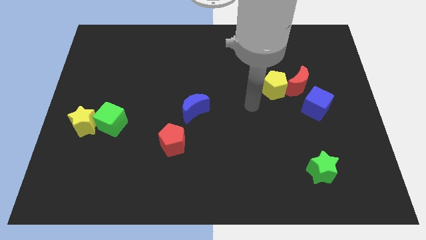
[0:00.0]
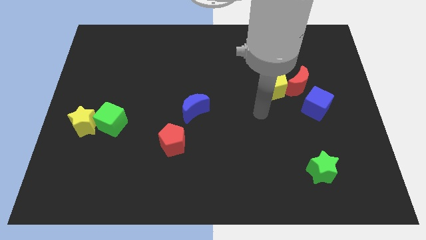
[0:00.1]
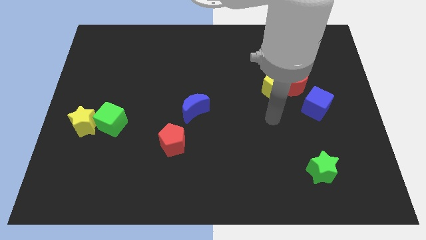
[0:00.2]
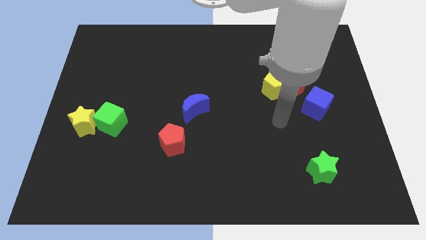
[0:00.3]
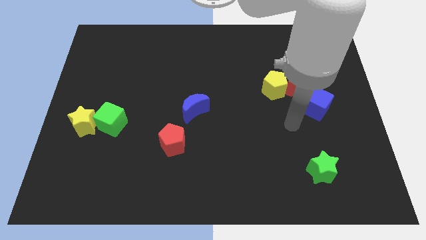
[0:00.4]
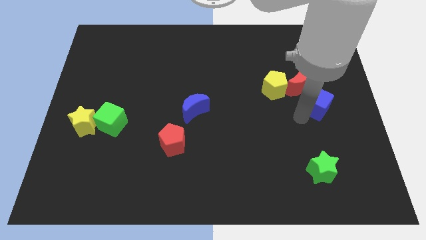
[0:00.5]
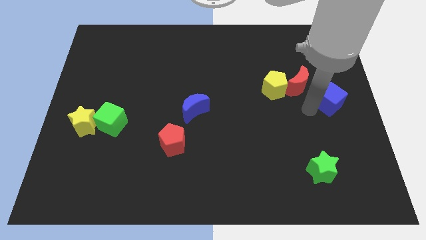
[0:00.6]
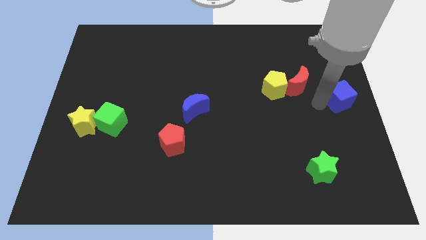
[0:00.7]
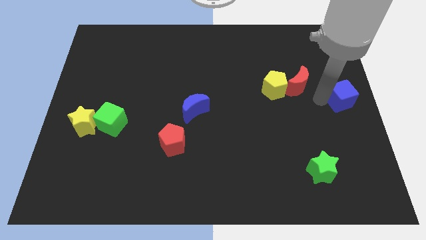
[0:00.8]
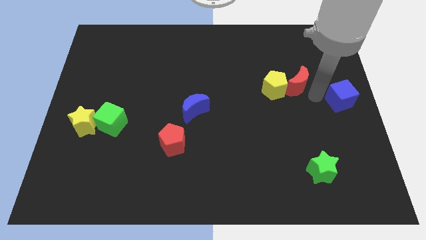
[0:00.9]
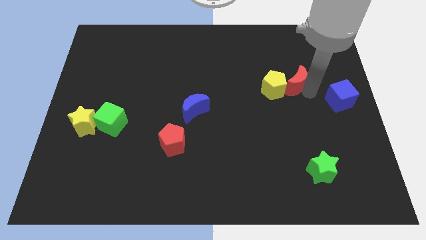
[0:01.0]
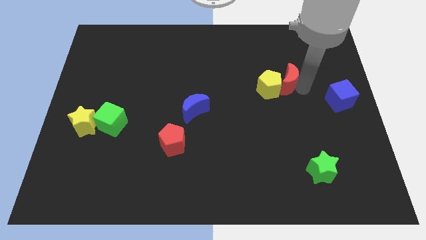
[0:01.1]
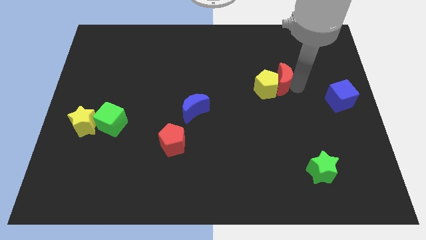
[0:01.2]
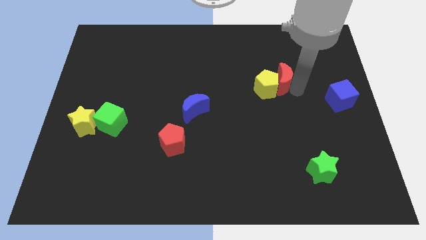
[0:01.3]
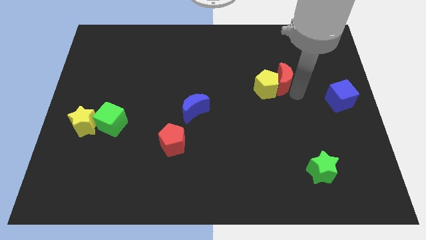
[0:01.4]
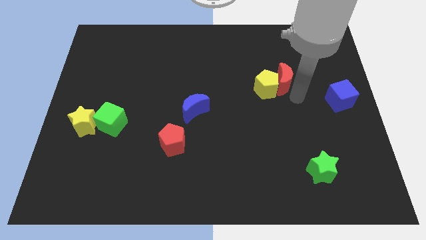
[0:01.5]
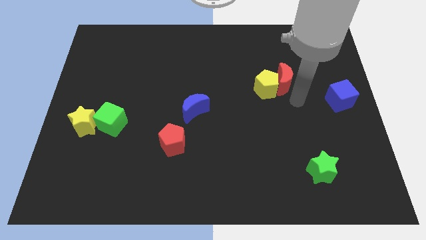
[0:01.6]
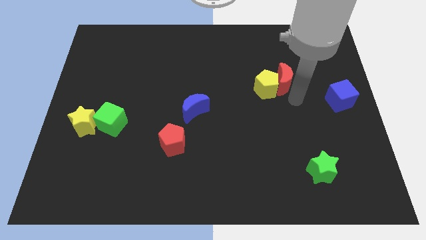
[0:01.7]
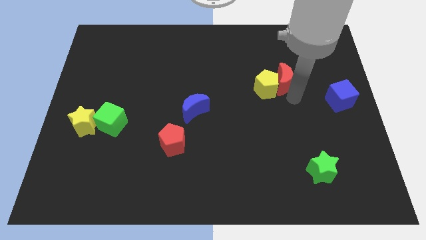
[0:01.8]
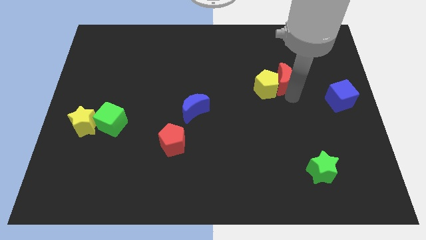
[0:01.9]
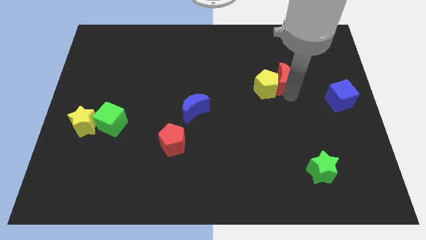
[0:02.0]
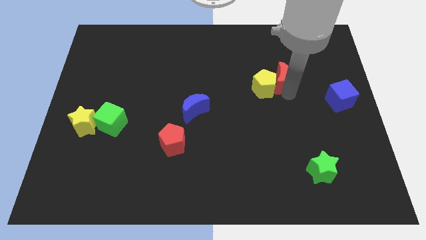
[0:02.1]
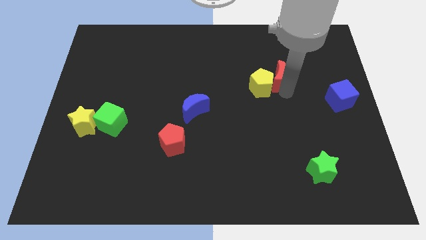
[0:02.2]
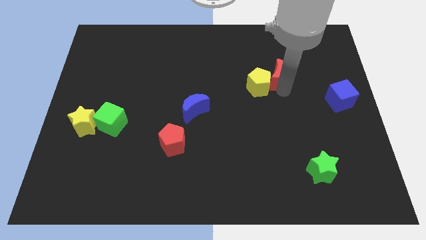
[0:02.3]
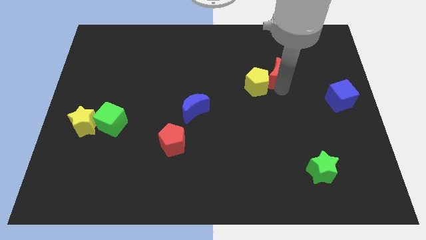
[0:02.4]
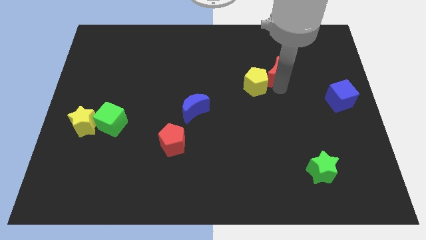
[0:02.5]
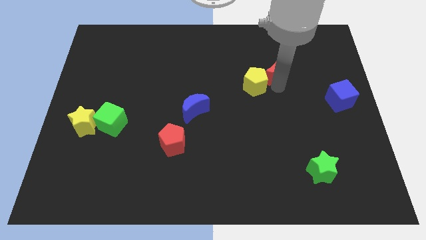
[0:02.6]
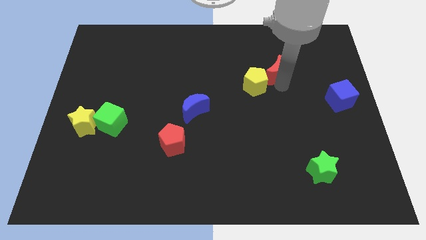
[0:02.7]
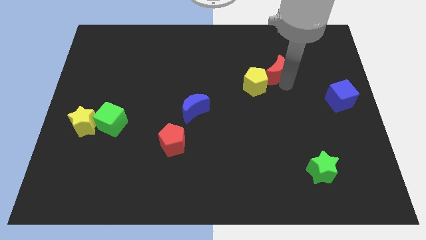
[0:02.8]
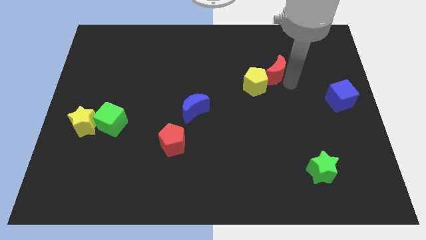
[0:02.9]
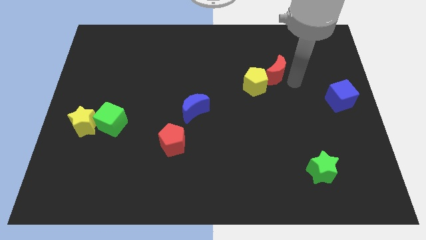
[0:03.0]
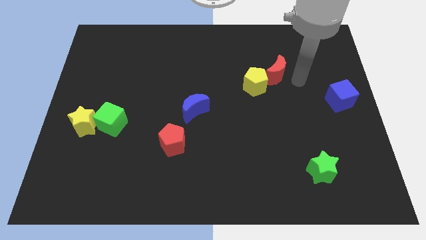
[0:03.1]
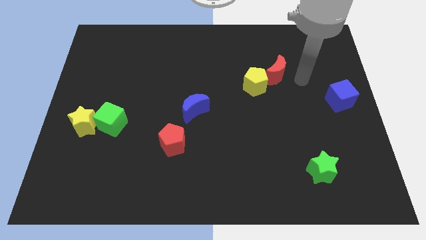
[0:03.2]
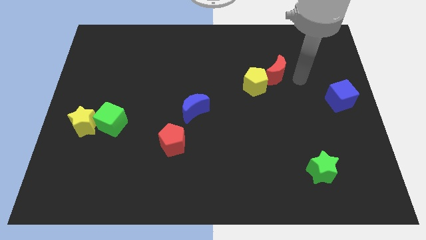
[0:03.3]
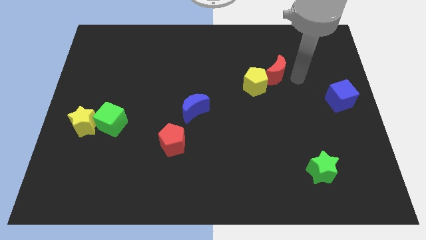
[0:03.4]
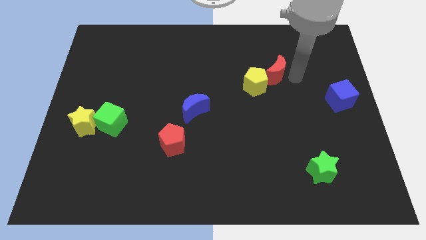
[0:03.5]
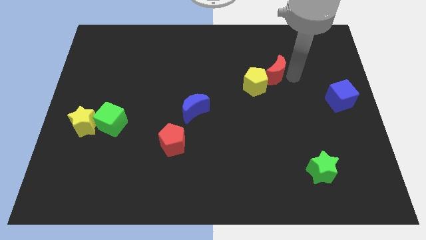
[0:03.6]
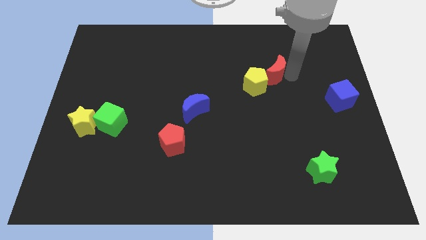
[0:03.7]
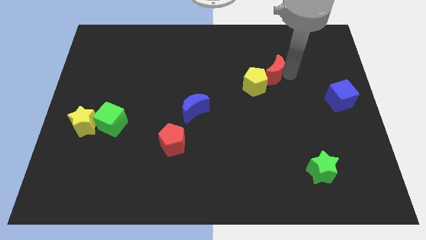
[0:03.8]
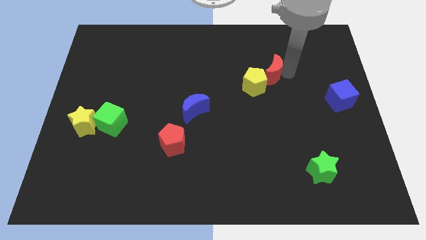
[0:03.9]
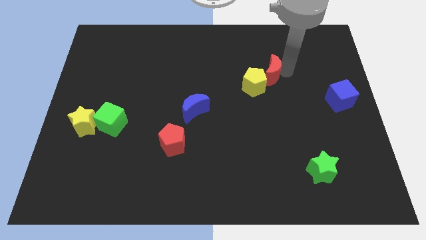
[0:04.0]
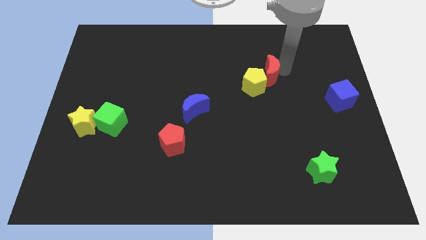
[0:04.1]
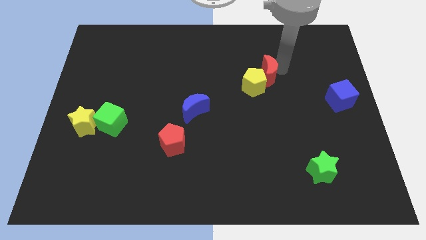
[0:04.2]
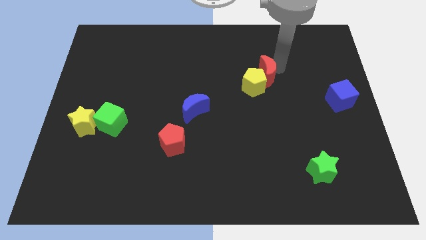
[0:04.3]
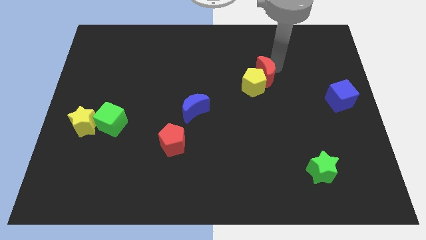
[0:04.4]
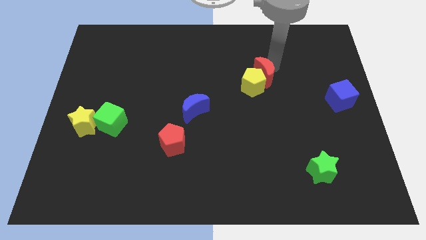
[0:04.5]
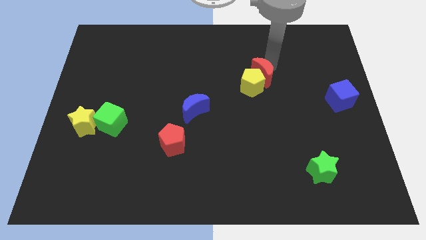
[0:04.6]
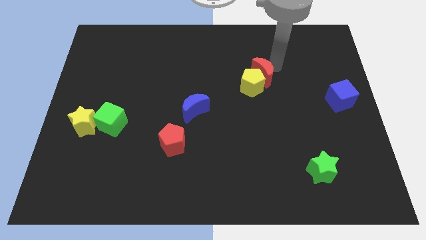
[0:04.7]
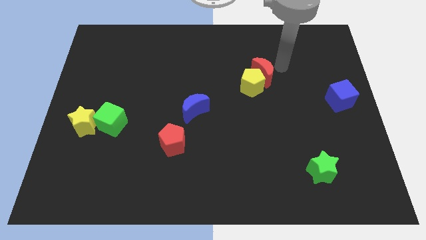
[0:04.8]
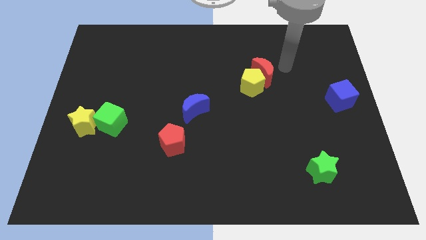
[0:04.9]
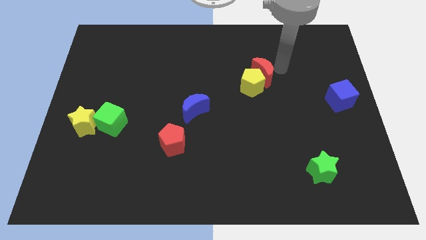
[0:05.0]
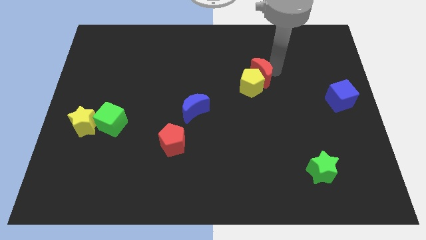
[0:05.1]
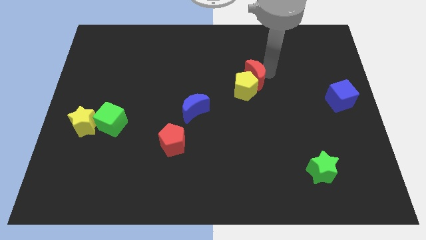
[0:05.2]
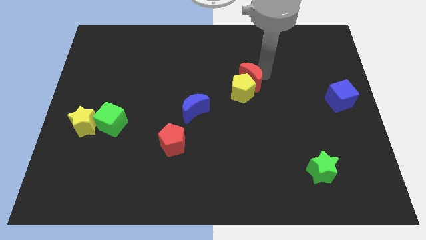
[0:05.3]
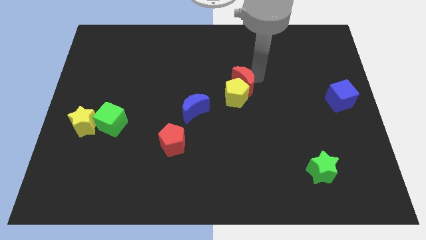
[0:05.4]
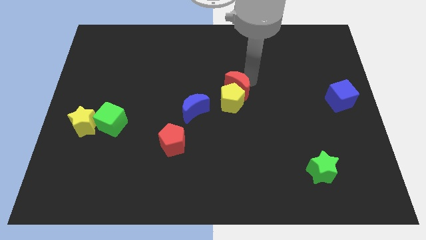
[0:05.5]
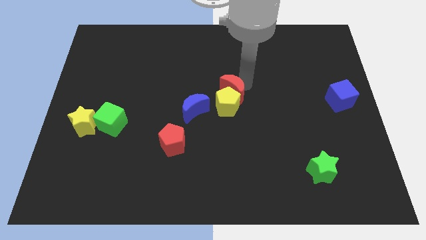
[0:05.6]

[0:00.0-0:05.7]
move the red moon to the top right side of the blue moon

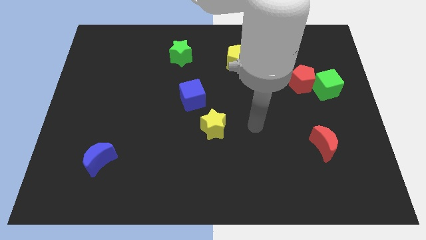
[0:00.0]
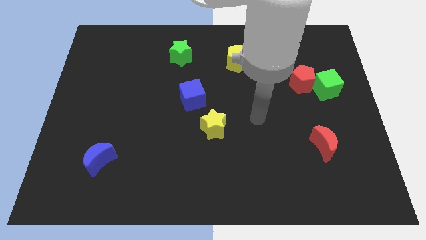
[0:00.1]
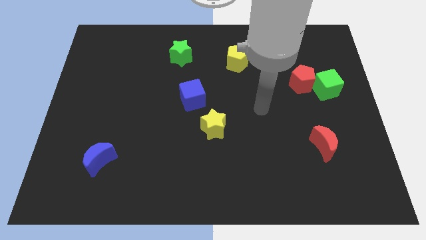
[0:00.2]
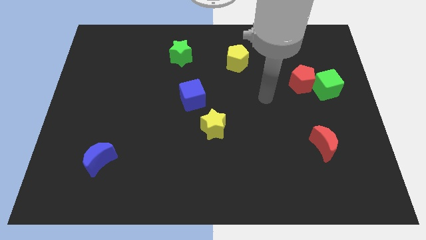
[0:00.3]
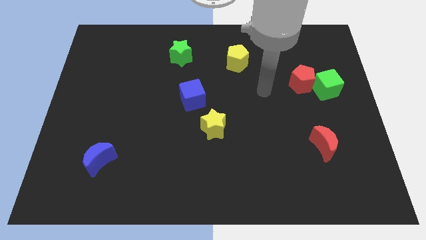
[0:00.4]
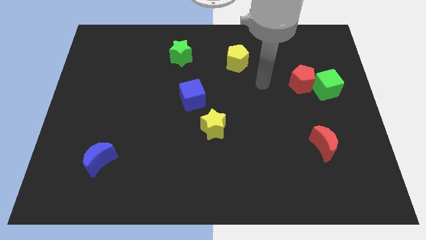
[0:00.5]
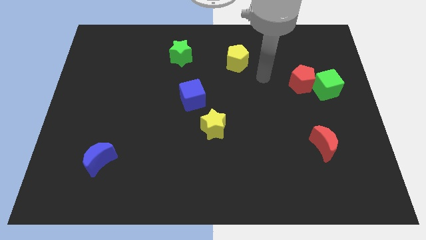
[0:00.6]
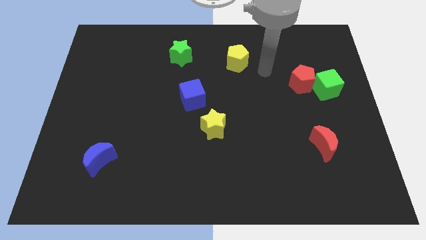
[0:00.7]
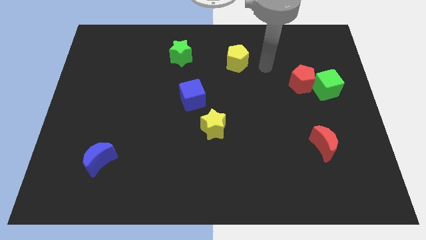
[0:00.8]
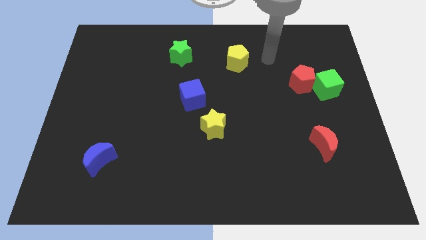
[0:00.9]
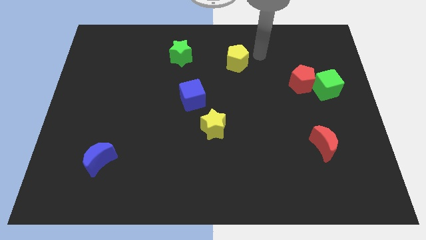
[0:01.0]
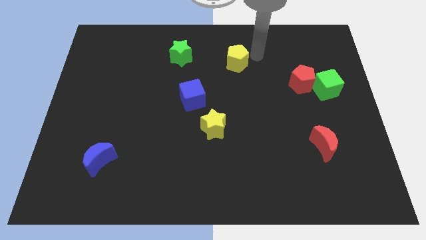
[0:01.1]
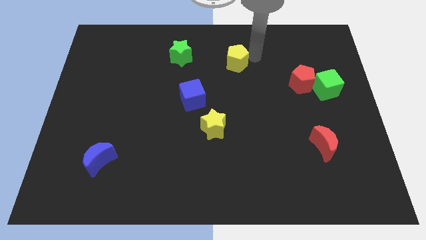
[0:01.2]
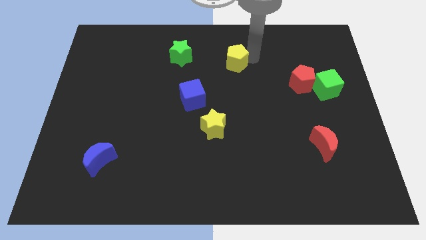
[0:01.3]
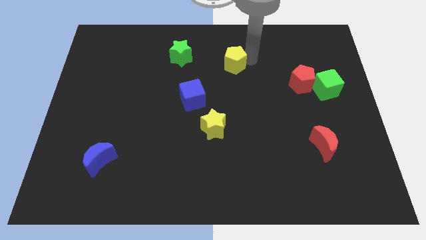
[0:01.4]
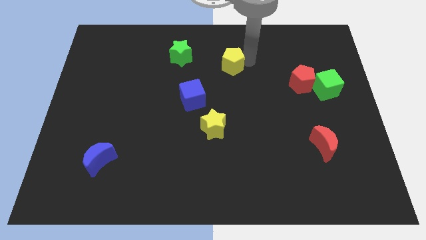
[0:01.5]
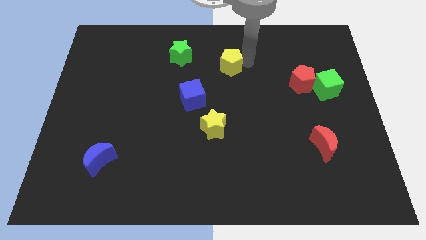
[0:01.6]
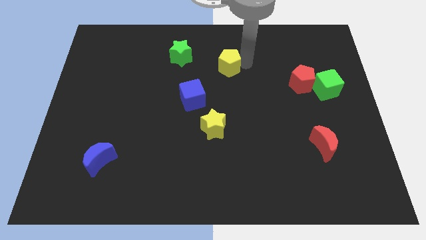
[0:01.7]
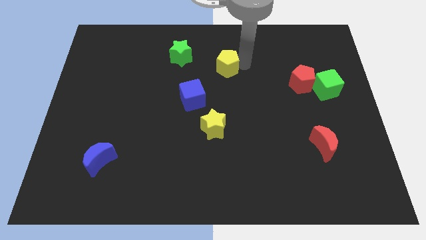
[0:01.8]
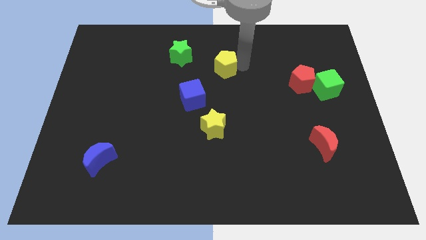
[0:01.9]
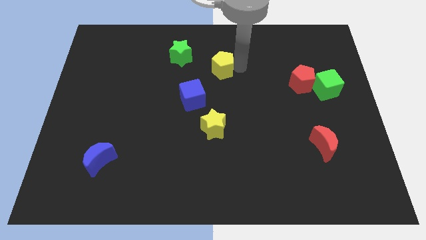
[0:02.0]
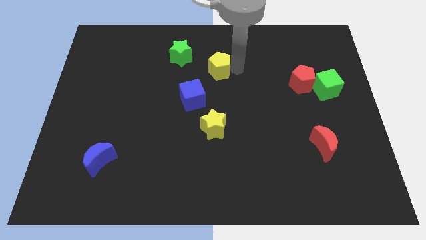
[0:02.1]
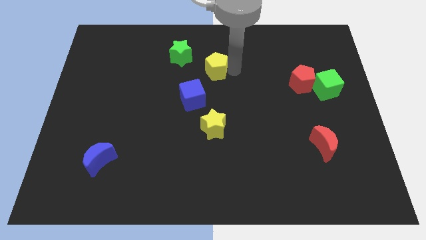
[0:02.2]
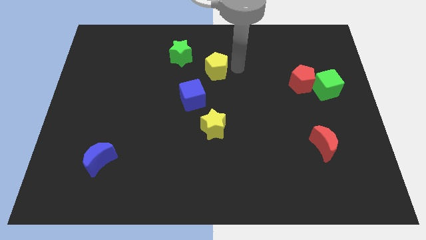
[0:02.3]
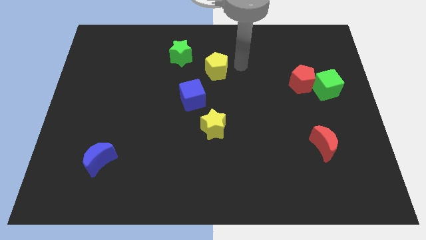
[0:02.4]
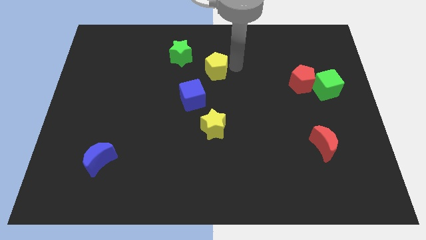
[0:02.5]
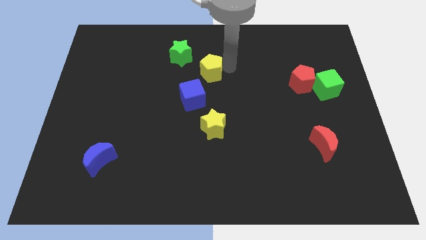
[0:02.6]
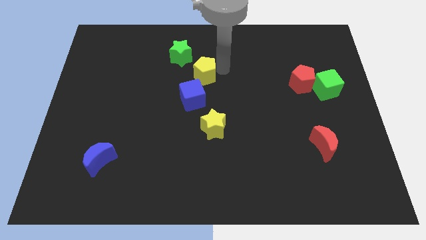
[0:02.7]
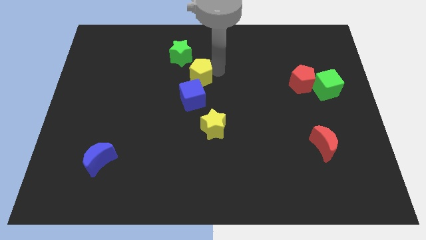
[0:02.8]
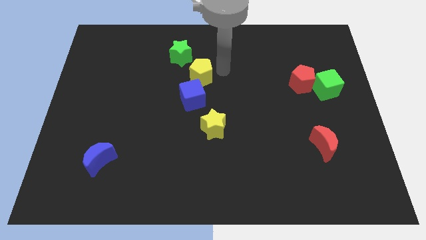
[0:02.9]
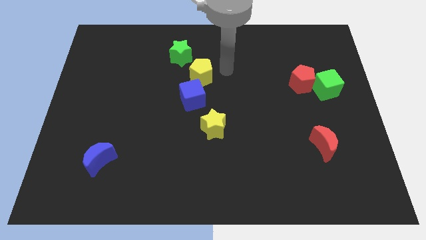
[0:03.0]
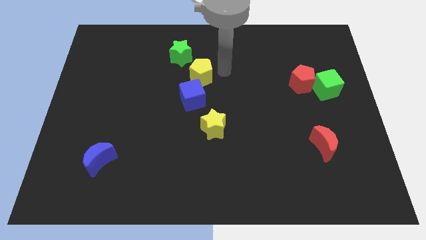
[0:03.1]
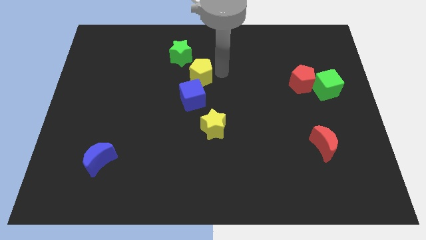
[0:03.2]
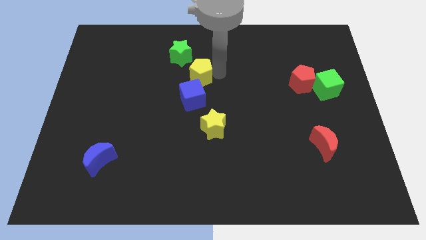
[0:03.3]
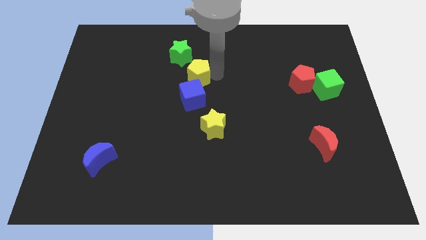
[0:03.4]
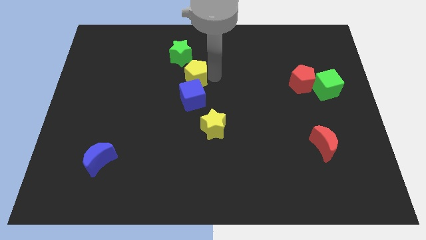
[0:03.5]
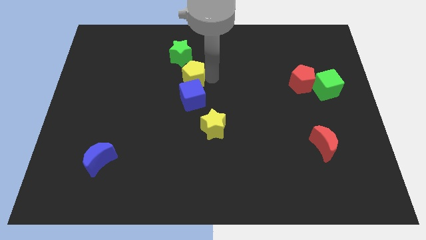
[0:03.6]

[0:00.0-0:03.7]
move the yellow pentagon to the top left of the blue cube
